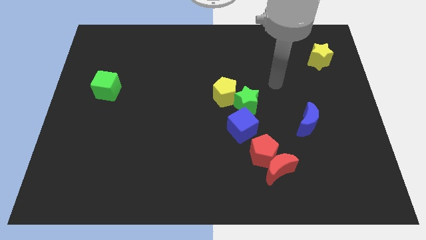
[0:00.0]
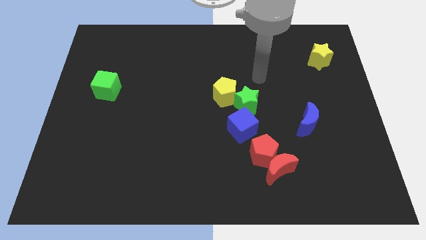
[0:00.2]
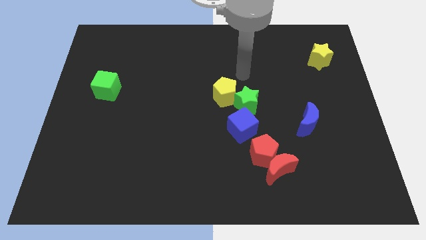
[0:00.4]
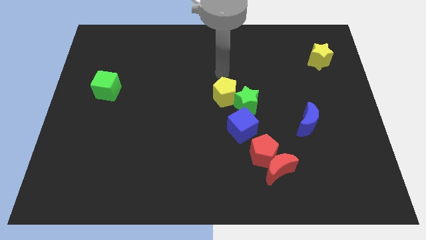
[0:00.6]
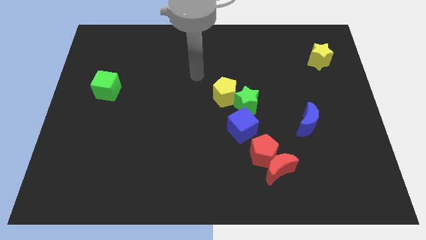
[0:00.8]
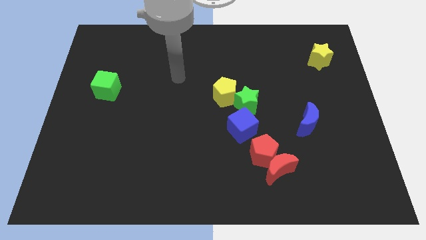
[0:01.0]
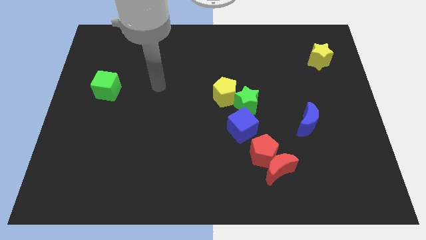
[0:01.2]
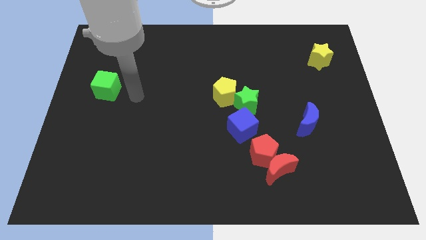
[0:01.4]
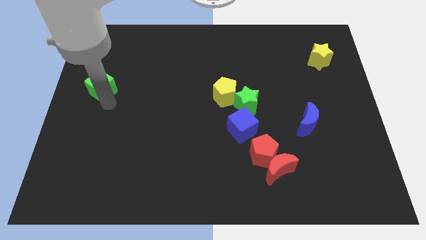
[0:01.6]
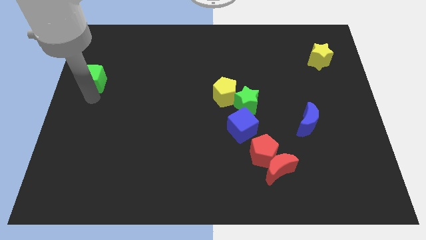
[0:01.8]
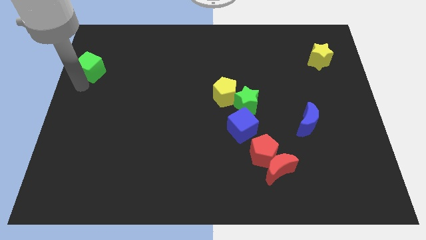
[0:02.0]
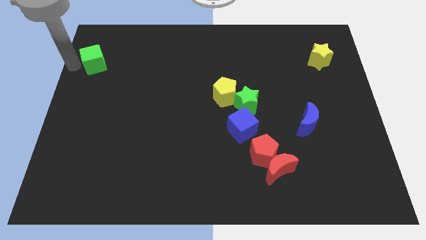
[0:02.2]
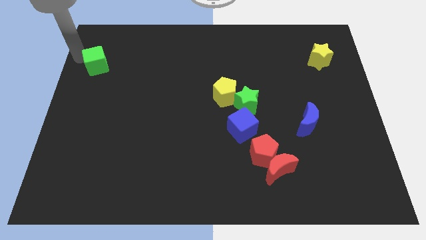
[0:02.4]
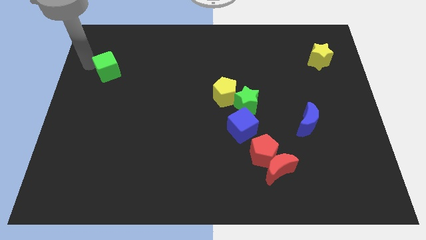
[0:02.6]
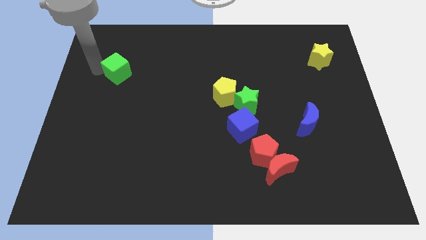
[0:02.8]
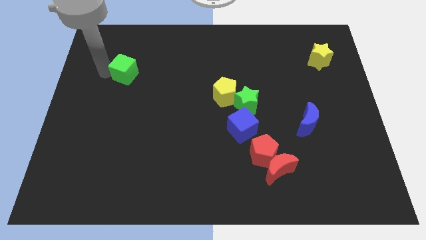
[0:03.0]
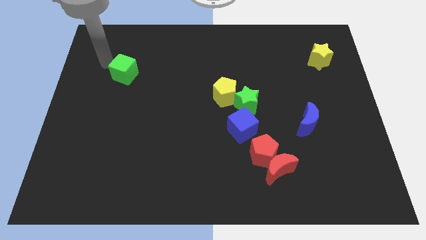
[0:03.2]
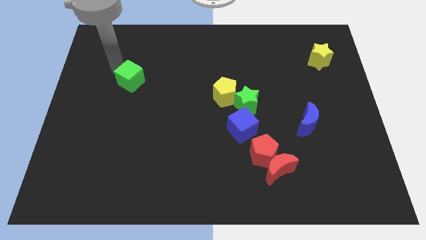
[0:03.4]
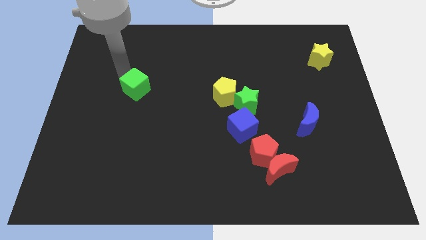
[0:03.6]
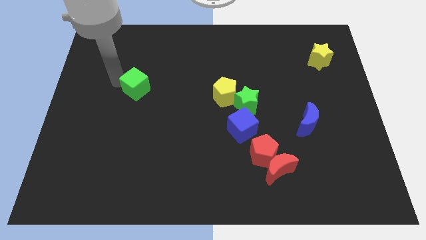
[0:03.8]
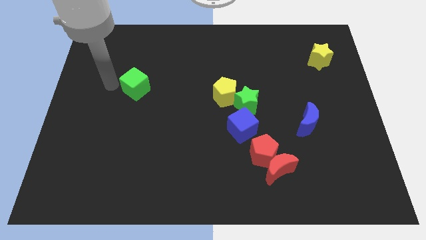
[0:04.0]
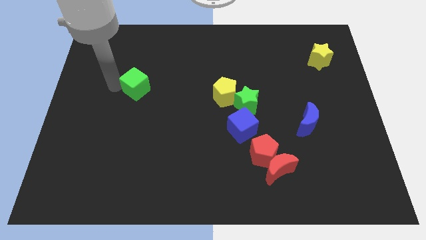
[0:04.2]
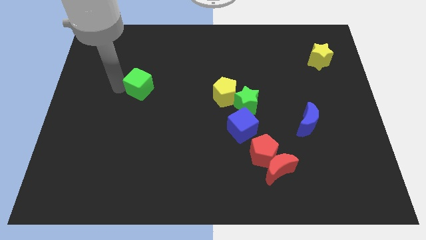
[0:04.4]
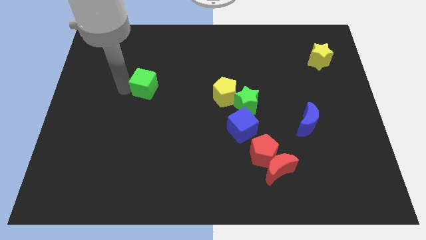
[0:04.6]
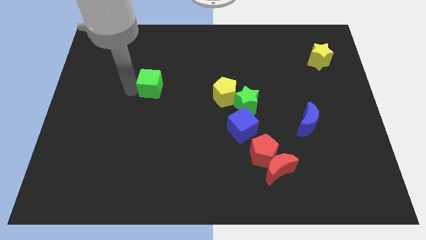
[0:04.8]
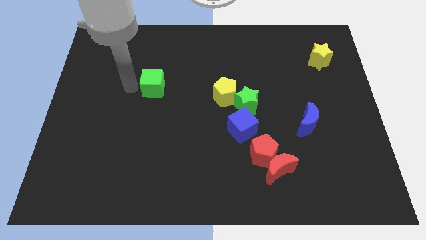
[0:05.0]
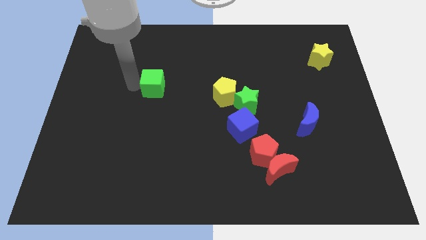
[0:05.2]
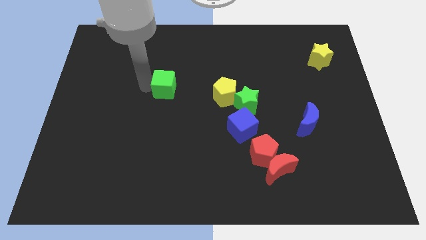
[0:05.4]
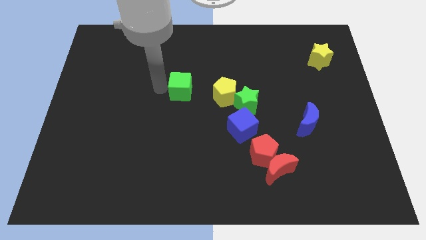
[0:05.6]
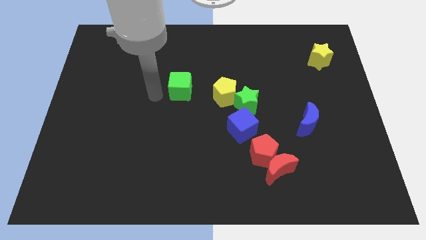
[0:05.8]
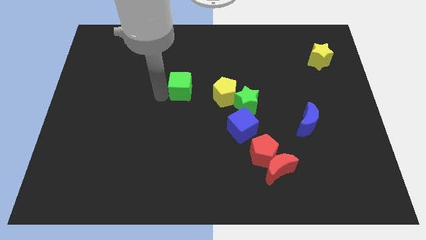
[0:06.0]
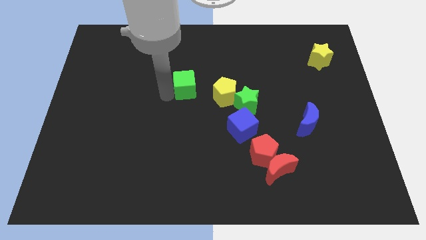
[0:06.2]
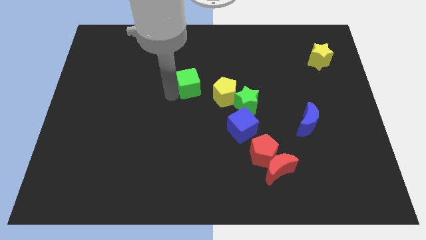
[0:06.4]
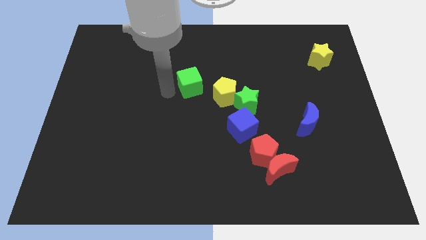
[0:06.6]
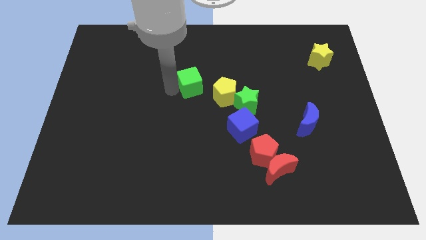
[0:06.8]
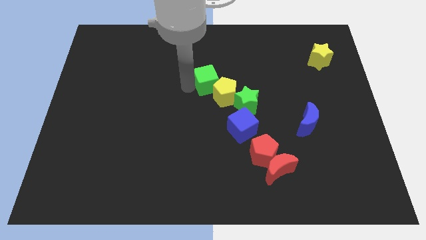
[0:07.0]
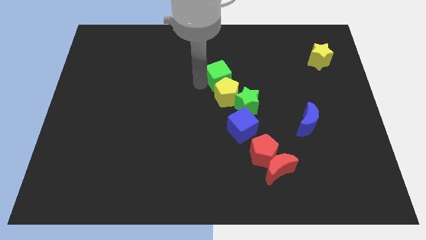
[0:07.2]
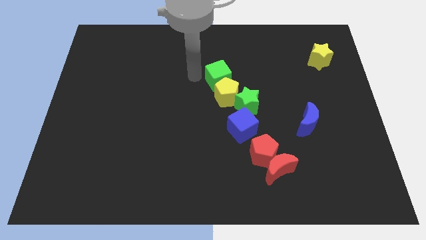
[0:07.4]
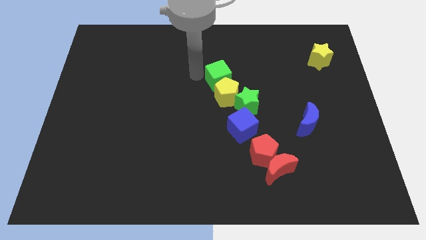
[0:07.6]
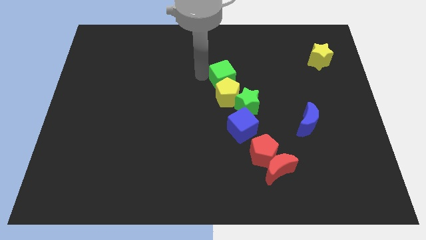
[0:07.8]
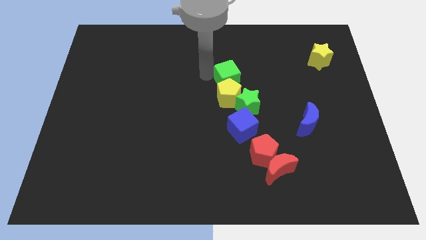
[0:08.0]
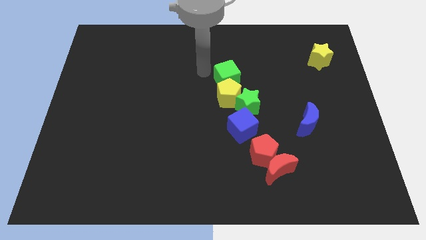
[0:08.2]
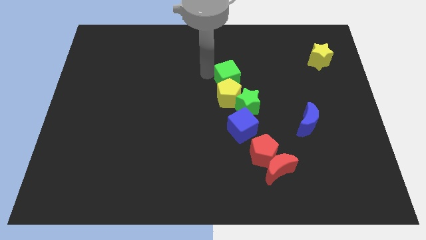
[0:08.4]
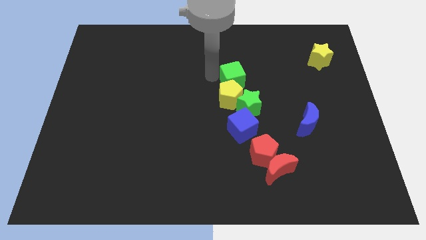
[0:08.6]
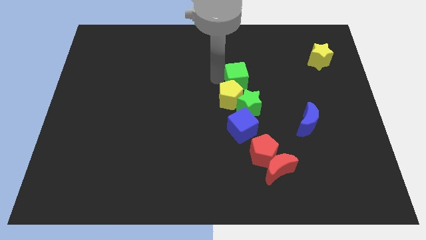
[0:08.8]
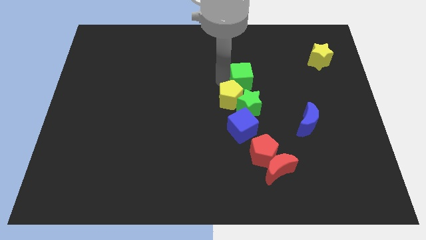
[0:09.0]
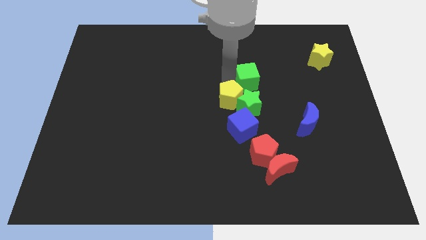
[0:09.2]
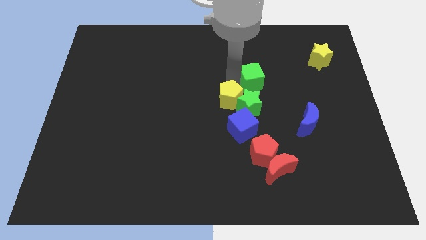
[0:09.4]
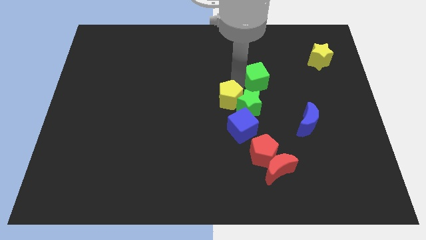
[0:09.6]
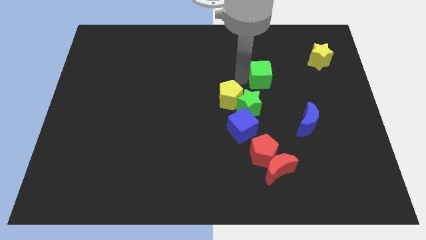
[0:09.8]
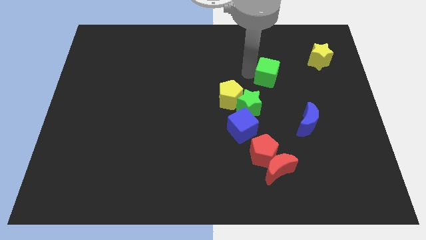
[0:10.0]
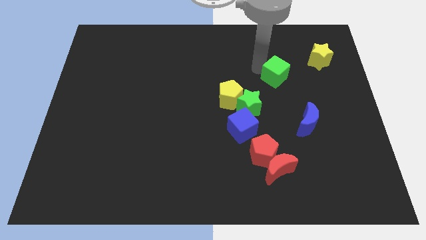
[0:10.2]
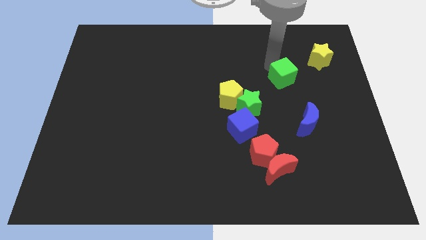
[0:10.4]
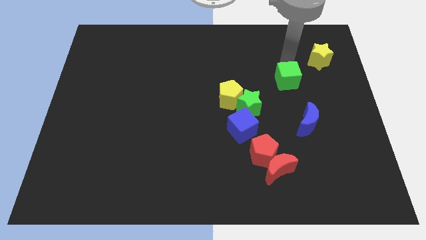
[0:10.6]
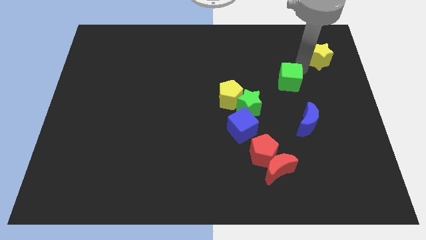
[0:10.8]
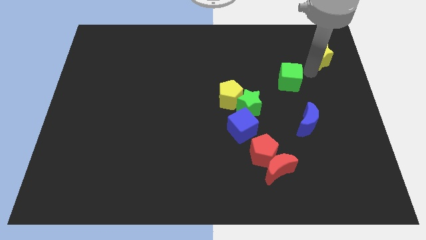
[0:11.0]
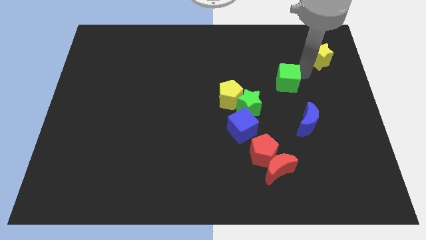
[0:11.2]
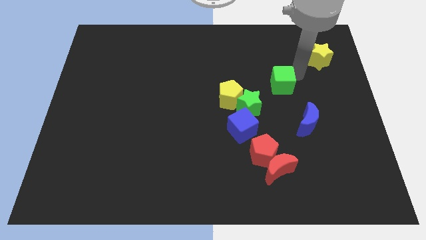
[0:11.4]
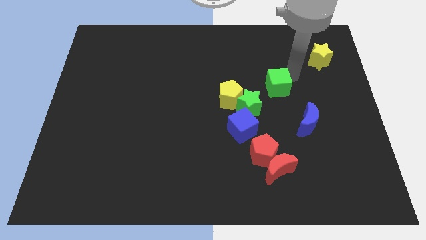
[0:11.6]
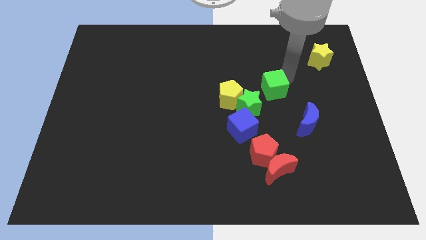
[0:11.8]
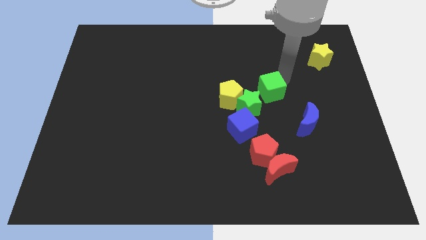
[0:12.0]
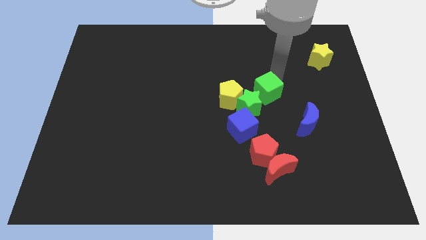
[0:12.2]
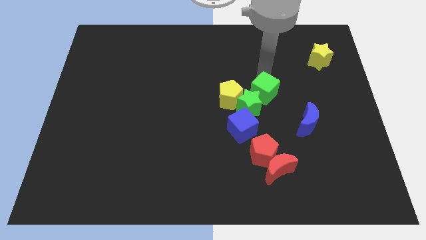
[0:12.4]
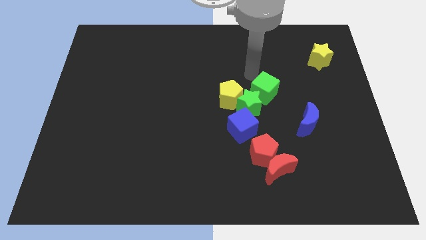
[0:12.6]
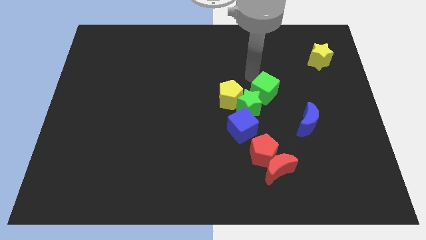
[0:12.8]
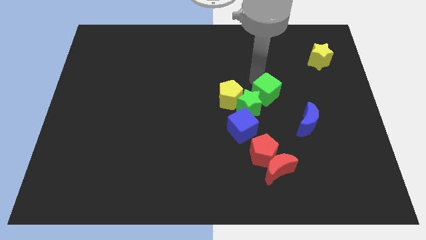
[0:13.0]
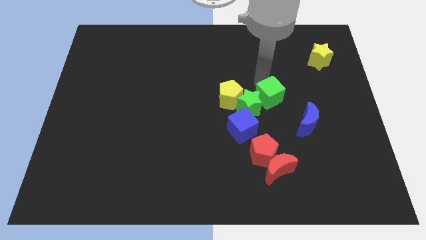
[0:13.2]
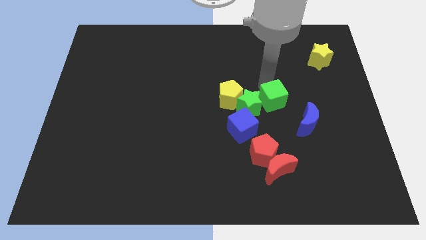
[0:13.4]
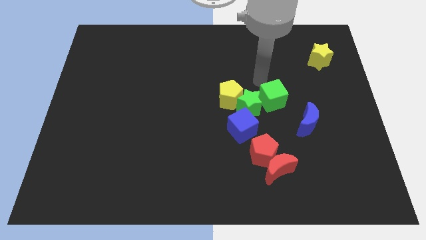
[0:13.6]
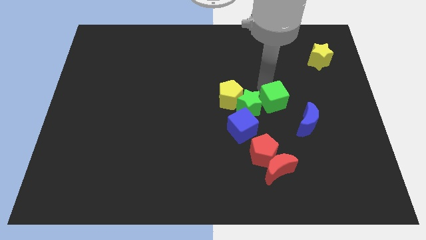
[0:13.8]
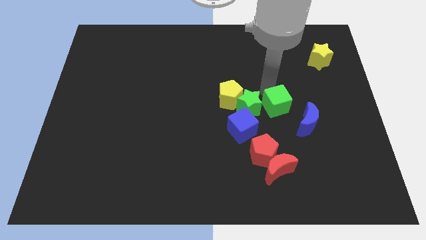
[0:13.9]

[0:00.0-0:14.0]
move the green cube diagonally down and to the right of the green star

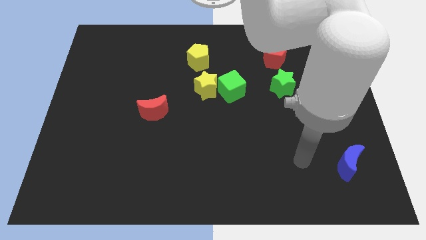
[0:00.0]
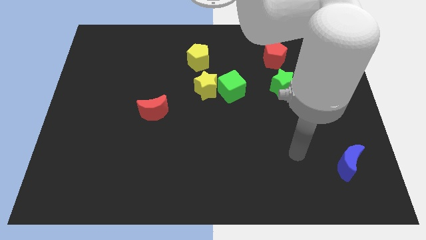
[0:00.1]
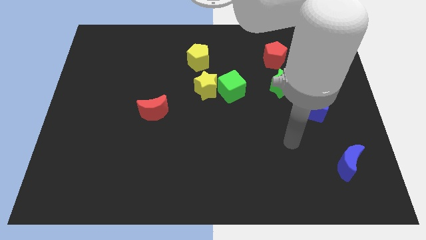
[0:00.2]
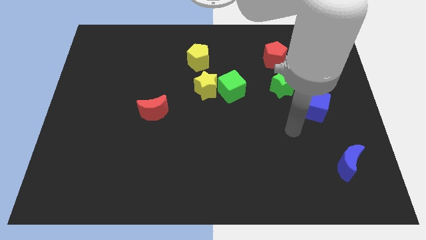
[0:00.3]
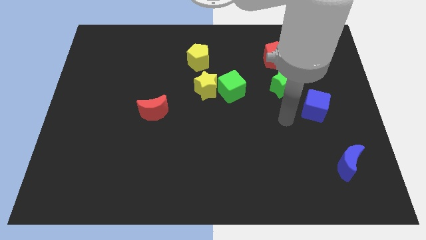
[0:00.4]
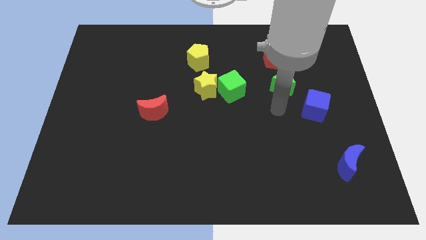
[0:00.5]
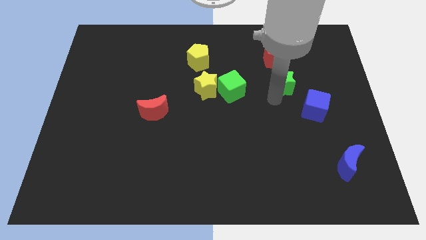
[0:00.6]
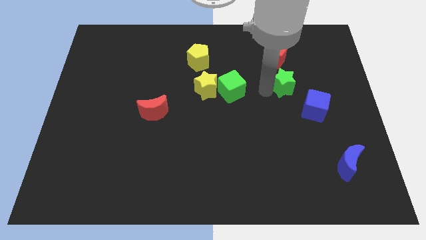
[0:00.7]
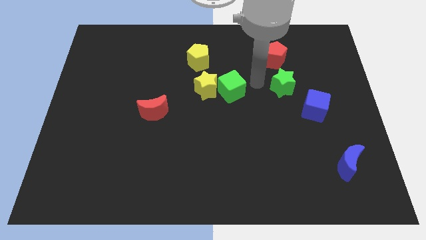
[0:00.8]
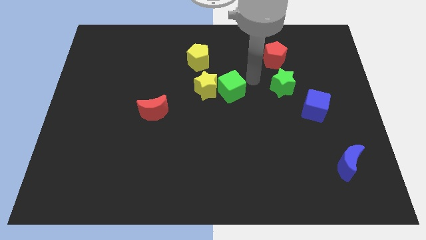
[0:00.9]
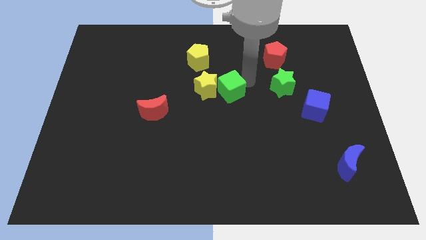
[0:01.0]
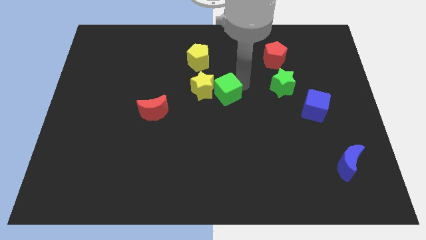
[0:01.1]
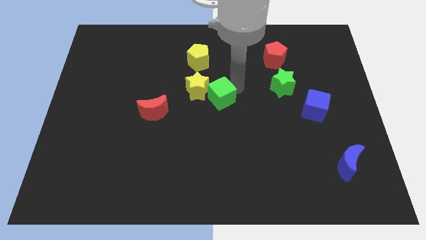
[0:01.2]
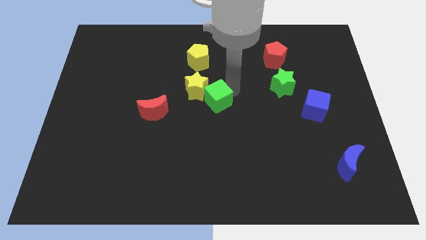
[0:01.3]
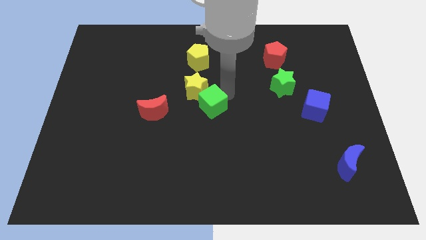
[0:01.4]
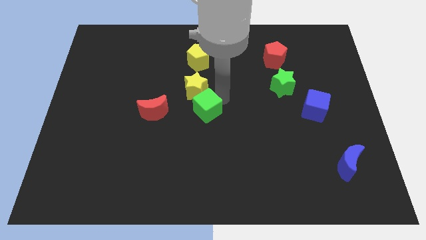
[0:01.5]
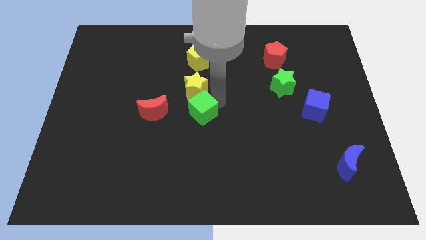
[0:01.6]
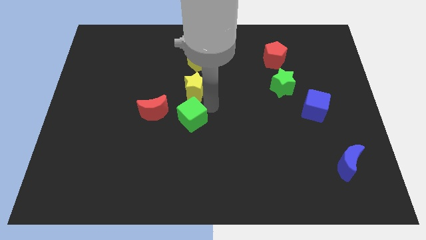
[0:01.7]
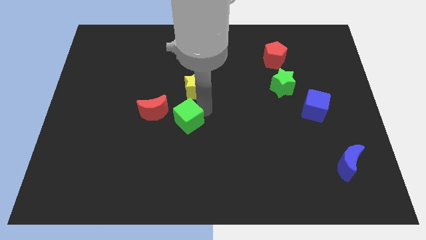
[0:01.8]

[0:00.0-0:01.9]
put the green cube to the bottom right of the red moon
